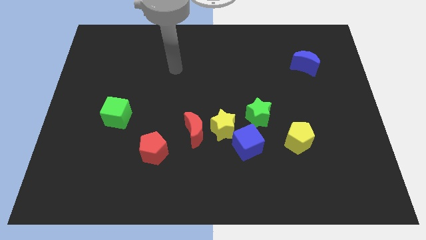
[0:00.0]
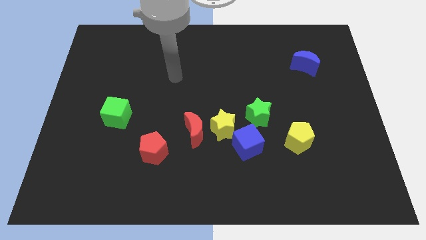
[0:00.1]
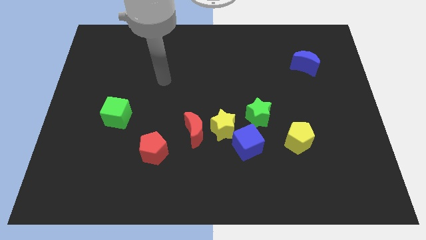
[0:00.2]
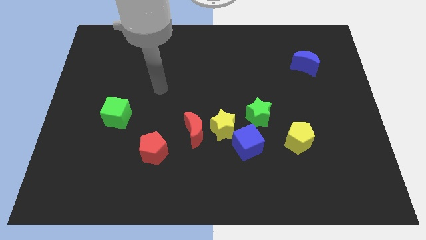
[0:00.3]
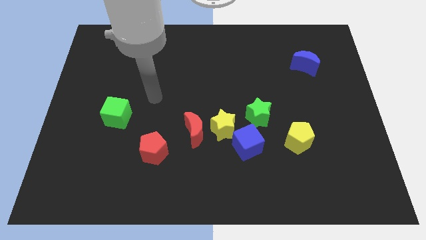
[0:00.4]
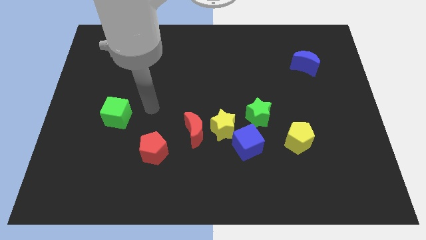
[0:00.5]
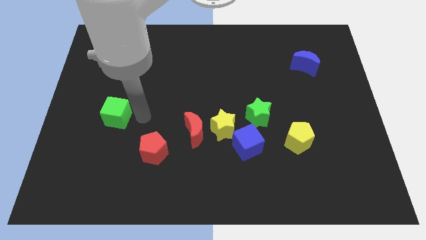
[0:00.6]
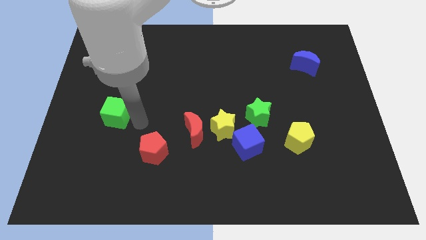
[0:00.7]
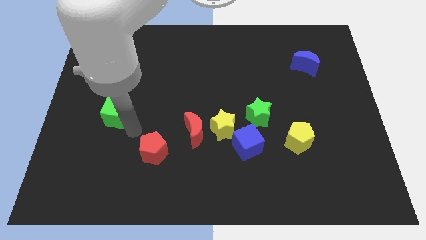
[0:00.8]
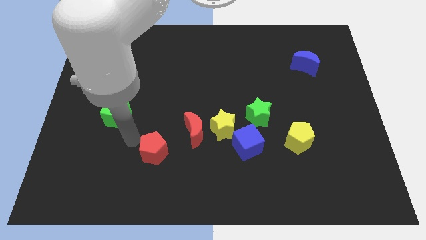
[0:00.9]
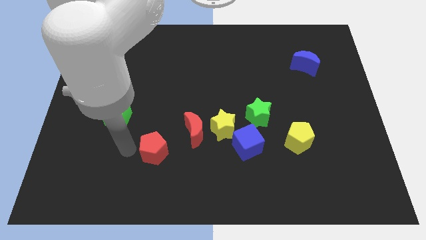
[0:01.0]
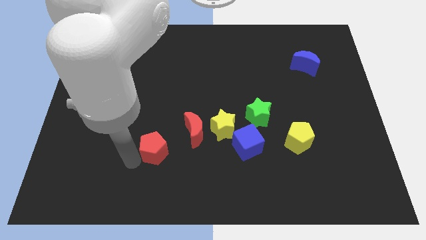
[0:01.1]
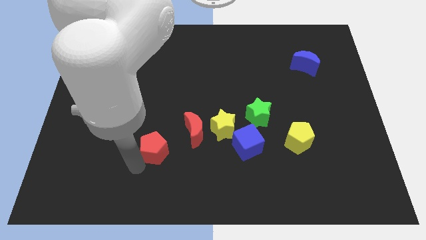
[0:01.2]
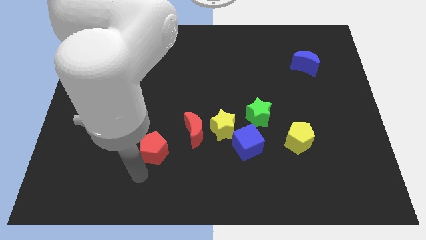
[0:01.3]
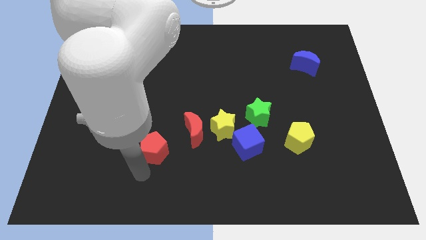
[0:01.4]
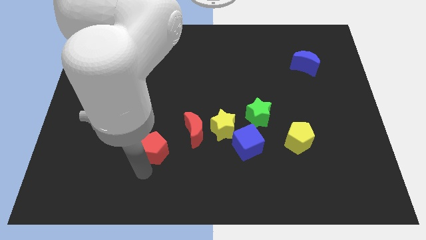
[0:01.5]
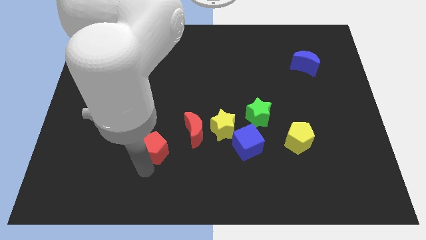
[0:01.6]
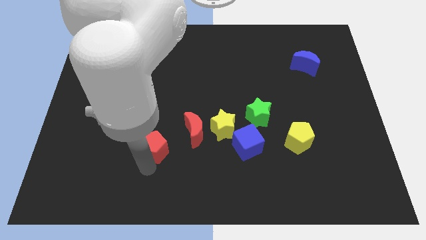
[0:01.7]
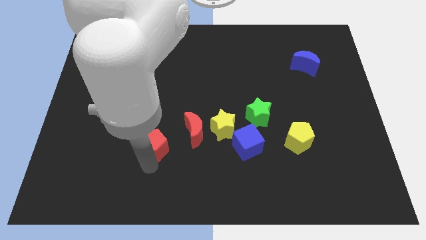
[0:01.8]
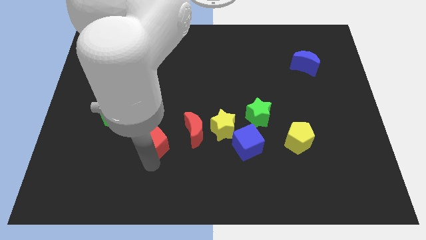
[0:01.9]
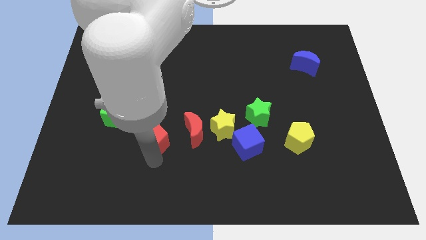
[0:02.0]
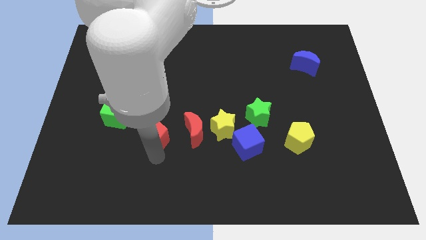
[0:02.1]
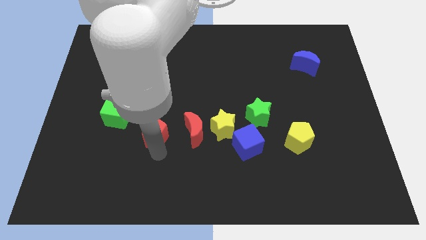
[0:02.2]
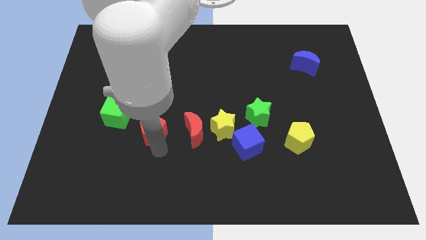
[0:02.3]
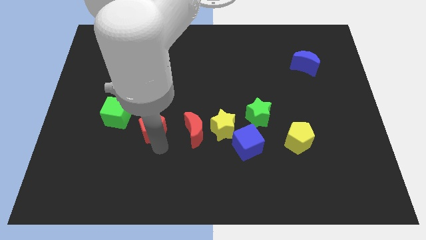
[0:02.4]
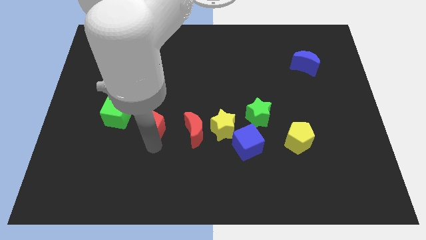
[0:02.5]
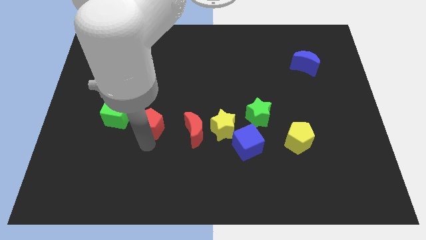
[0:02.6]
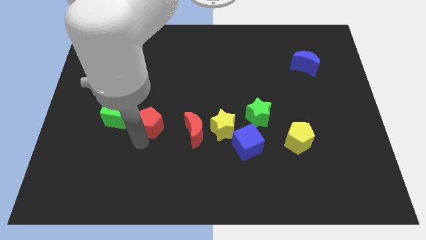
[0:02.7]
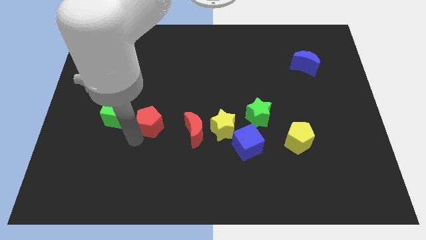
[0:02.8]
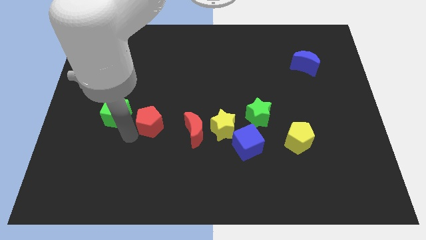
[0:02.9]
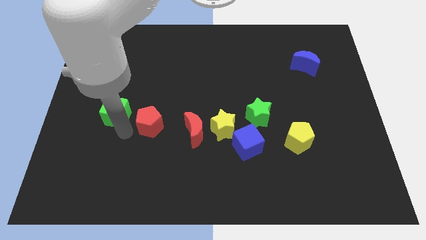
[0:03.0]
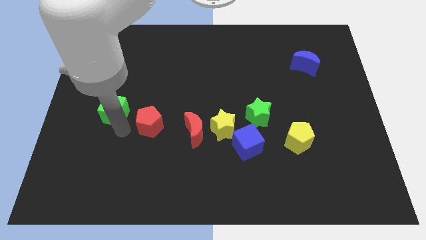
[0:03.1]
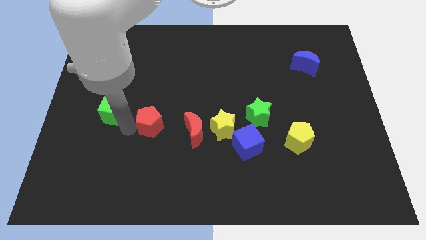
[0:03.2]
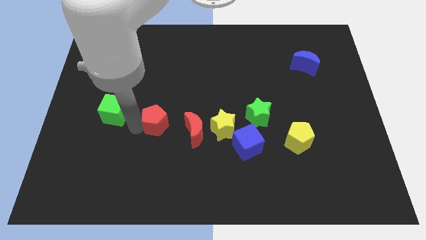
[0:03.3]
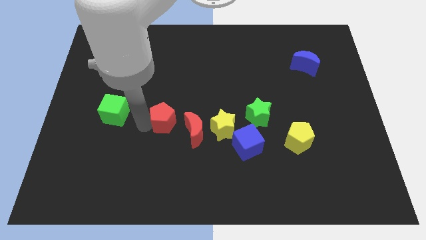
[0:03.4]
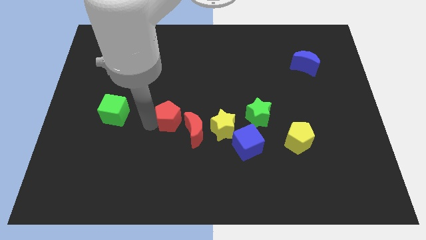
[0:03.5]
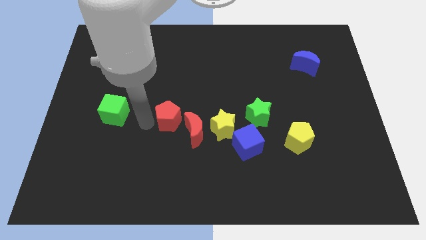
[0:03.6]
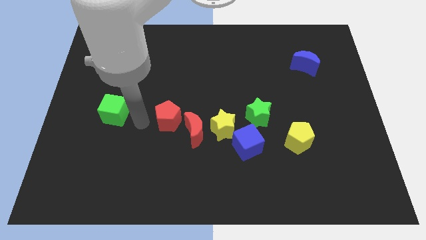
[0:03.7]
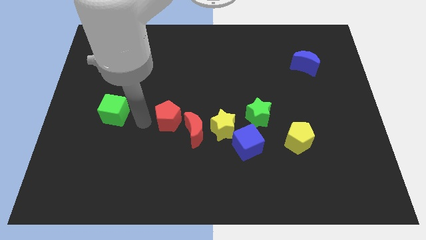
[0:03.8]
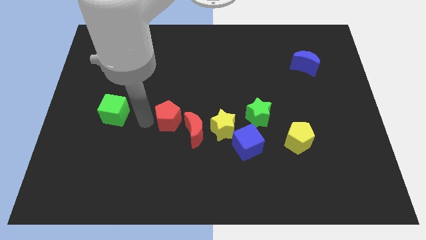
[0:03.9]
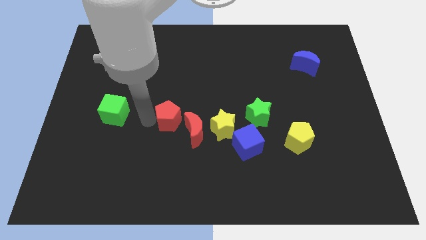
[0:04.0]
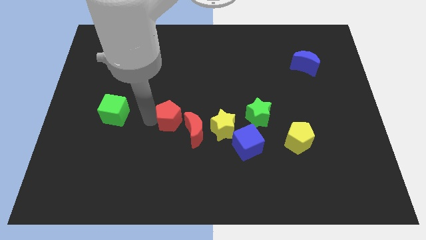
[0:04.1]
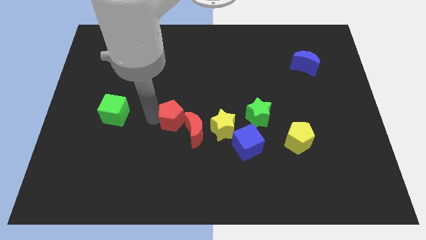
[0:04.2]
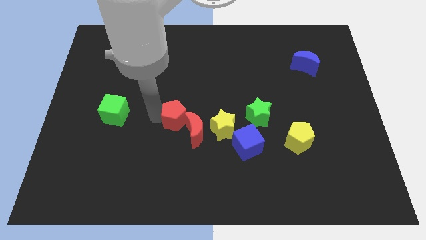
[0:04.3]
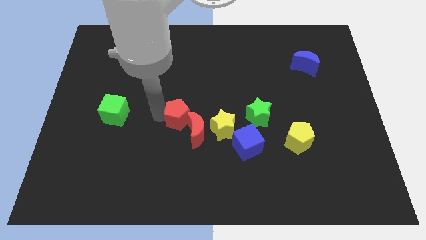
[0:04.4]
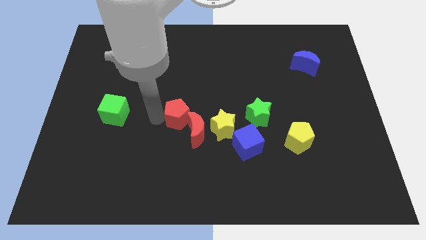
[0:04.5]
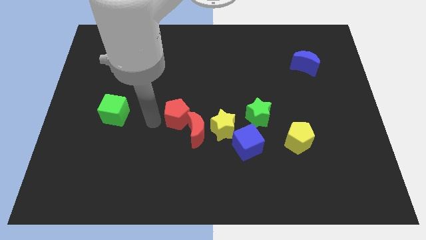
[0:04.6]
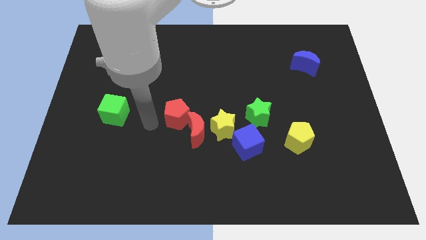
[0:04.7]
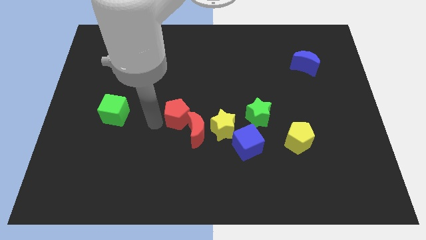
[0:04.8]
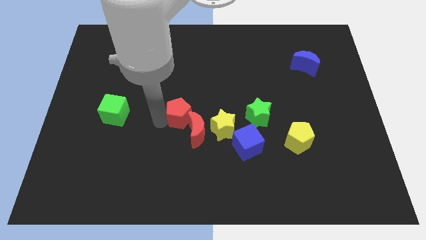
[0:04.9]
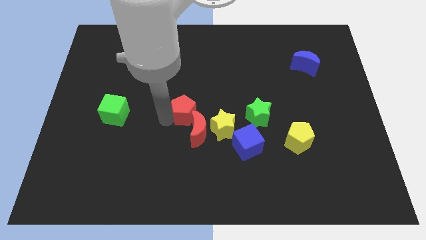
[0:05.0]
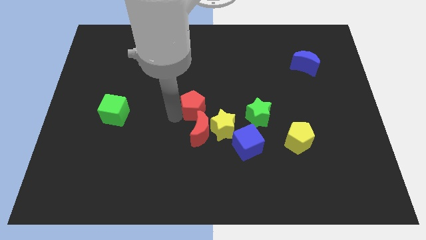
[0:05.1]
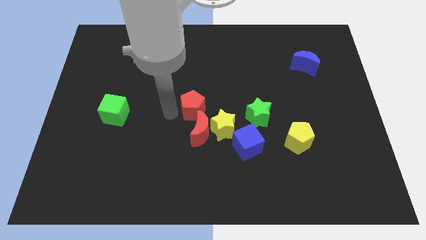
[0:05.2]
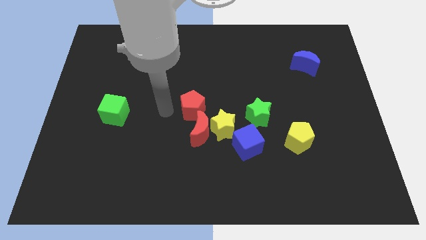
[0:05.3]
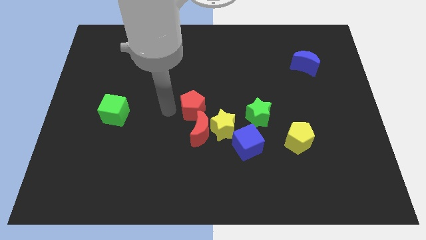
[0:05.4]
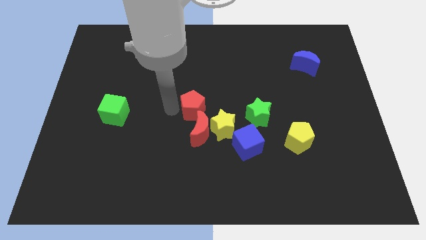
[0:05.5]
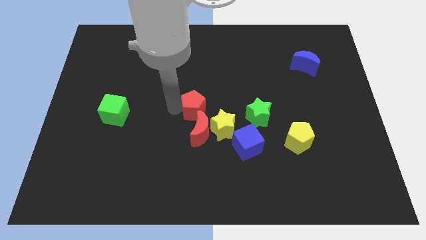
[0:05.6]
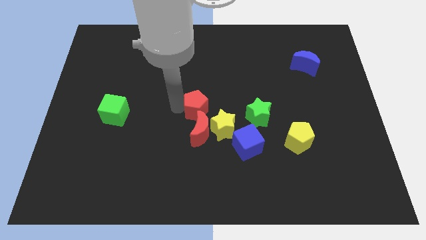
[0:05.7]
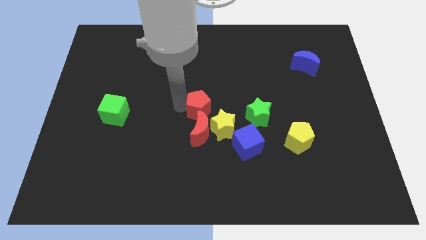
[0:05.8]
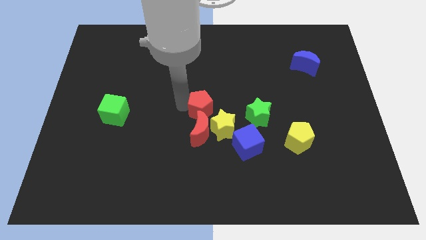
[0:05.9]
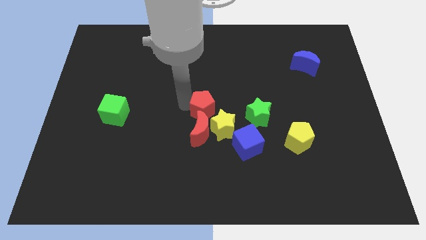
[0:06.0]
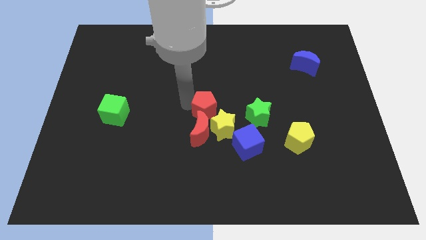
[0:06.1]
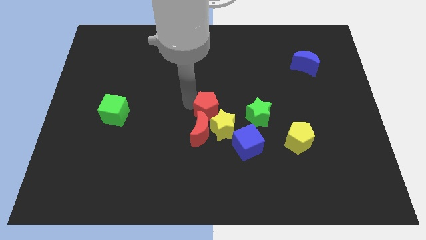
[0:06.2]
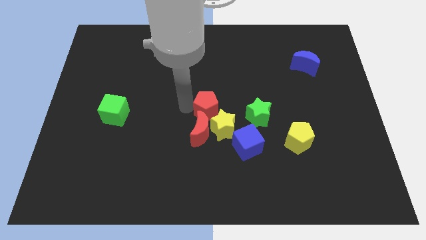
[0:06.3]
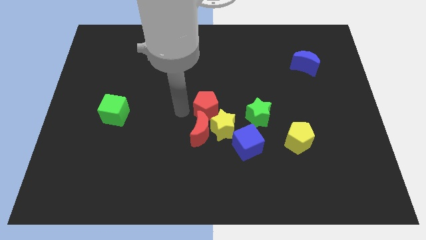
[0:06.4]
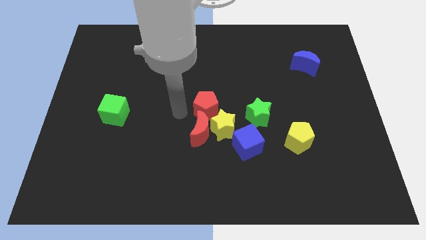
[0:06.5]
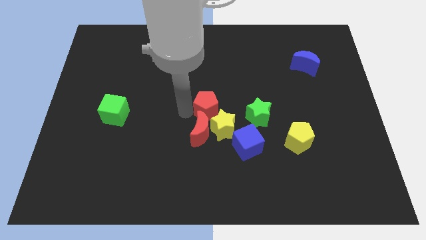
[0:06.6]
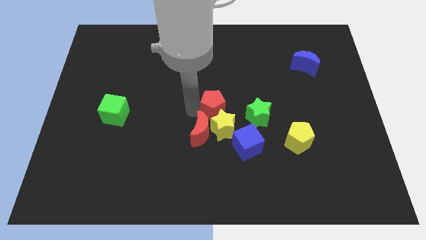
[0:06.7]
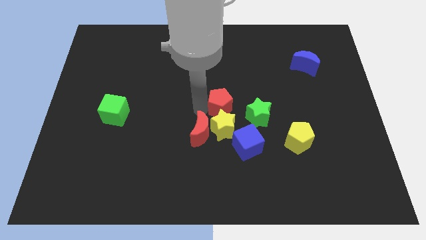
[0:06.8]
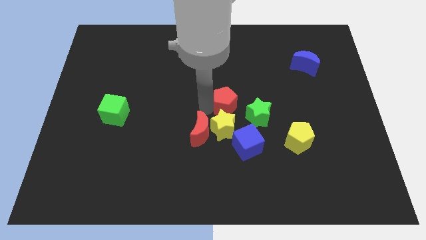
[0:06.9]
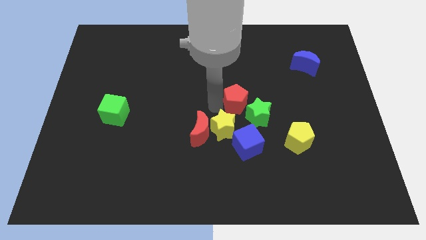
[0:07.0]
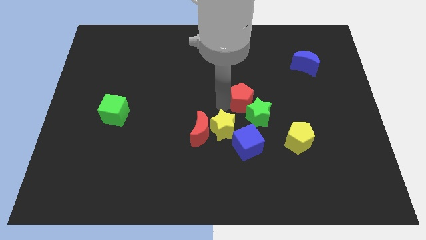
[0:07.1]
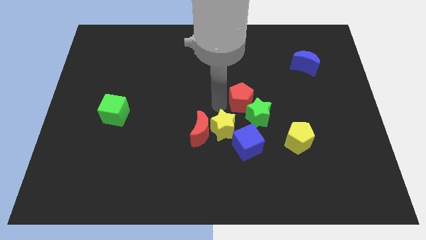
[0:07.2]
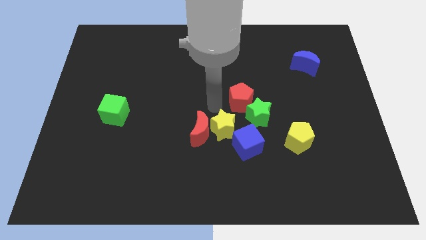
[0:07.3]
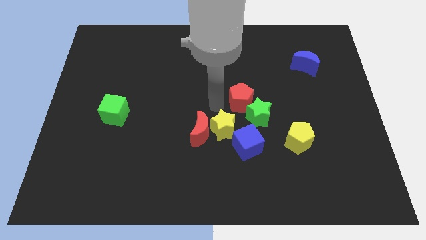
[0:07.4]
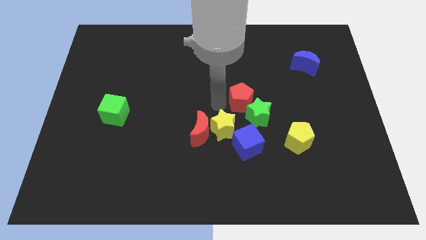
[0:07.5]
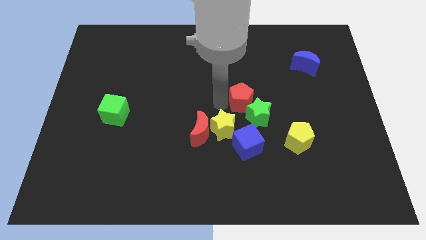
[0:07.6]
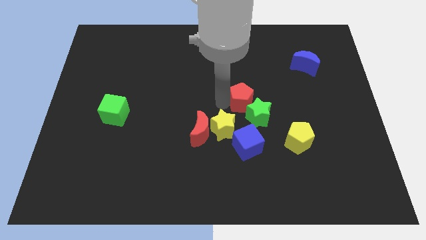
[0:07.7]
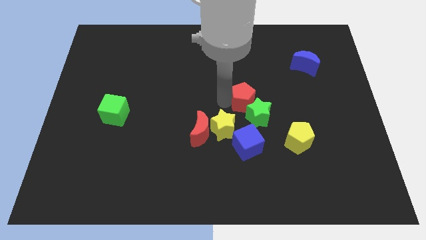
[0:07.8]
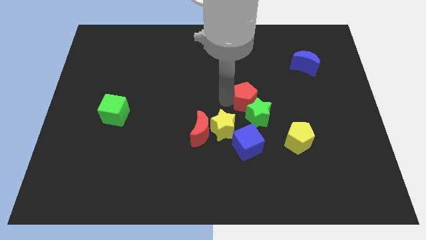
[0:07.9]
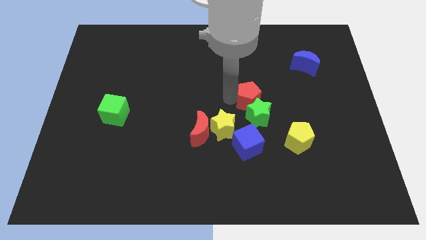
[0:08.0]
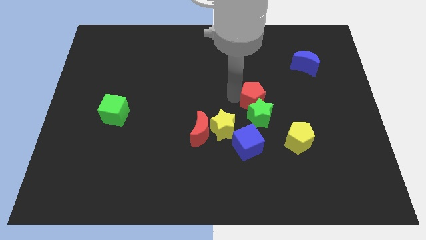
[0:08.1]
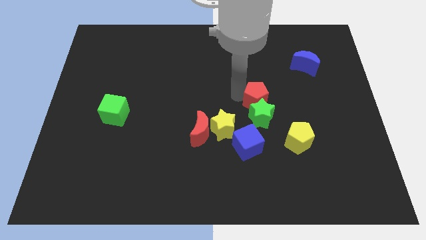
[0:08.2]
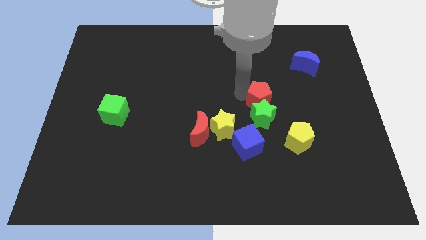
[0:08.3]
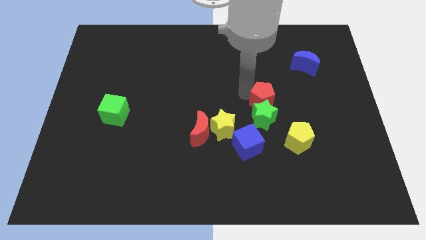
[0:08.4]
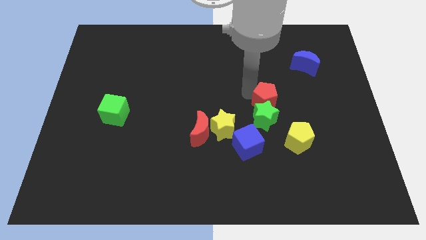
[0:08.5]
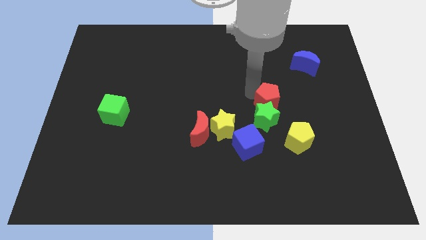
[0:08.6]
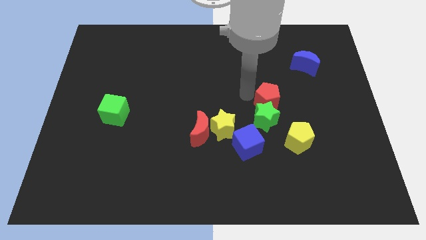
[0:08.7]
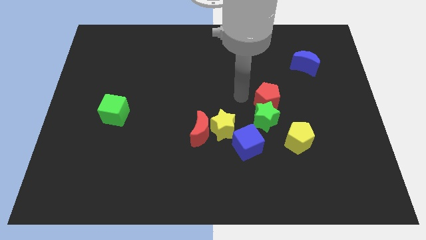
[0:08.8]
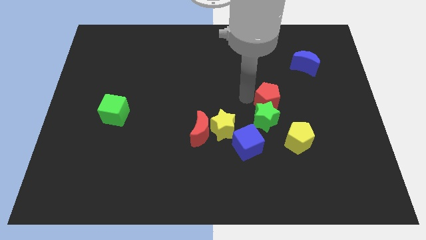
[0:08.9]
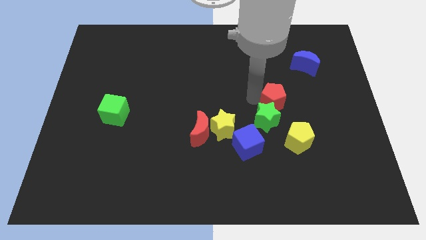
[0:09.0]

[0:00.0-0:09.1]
move the red pentagon above the yellow pentagon
